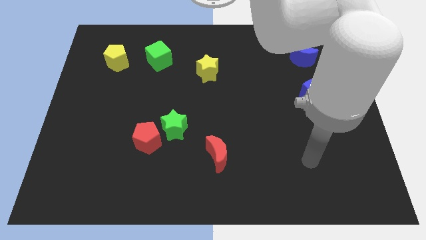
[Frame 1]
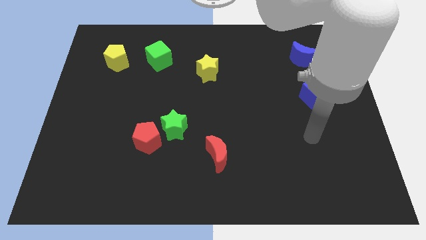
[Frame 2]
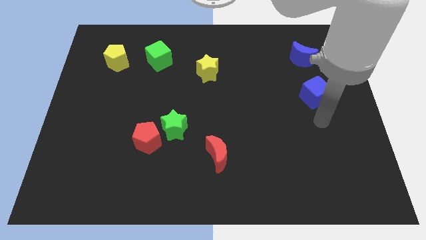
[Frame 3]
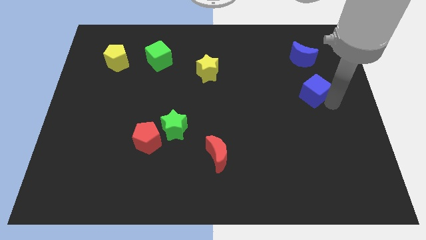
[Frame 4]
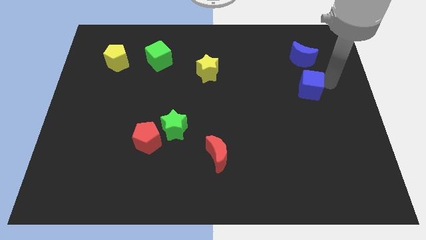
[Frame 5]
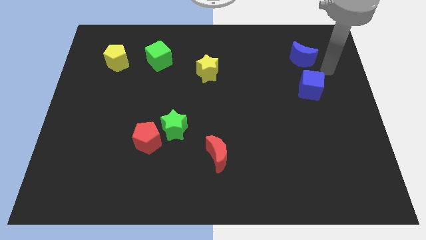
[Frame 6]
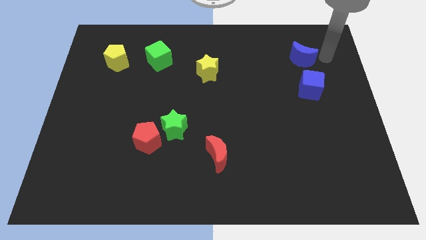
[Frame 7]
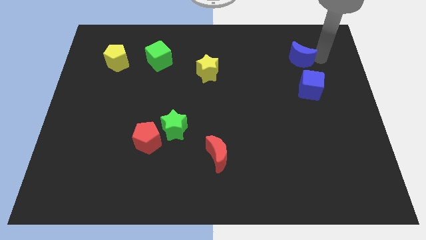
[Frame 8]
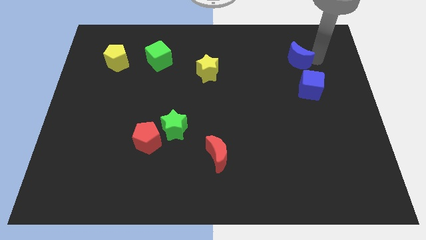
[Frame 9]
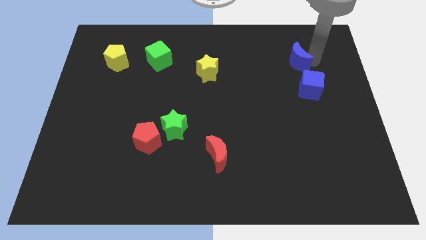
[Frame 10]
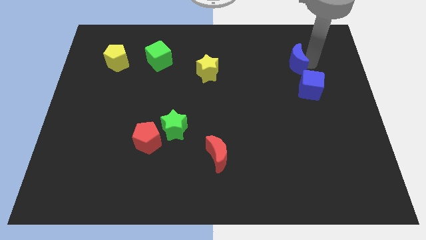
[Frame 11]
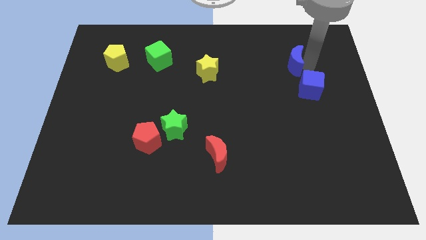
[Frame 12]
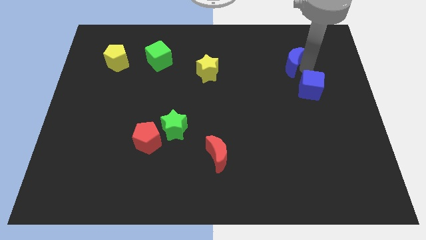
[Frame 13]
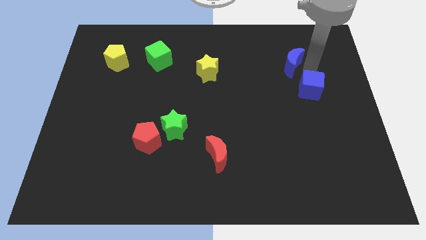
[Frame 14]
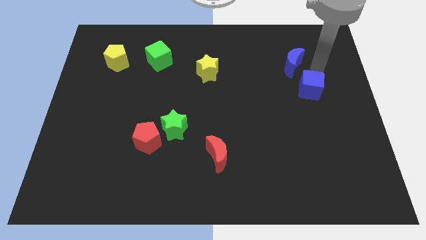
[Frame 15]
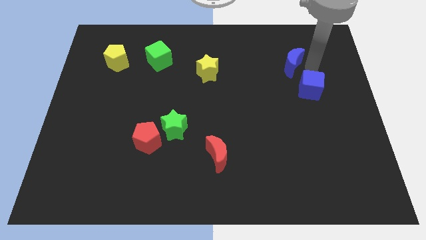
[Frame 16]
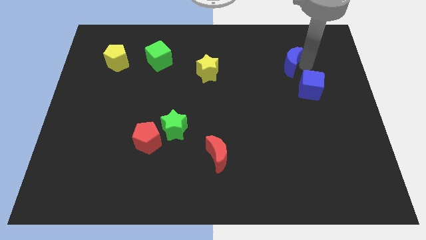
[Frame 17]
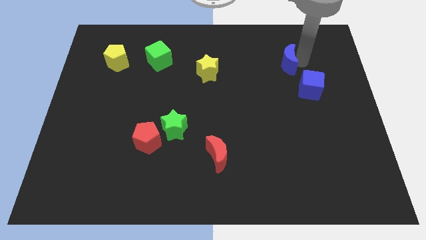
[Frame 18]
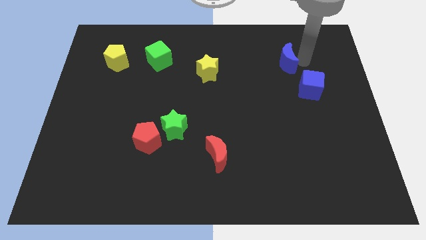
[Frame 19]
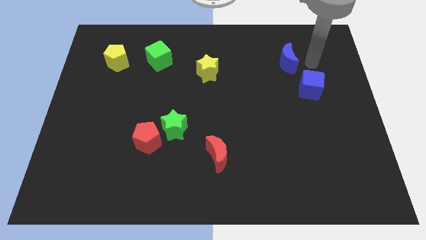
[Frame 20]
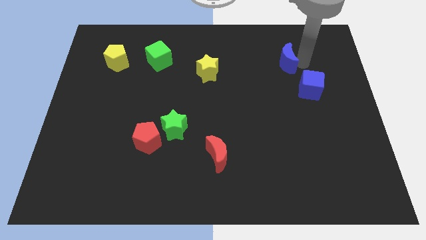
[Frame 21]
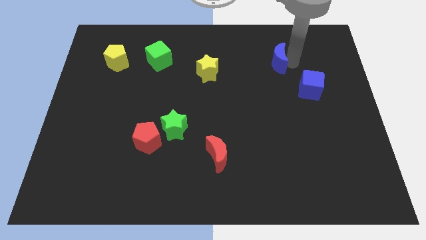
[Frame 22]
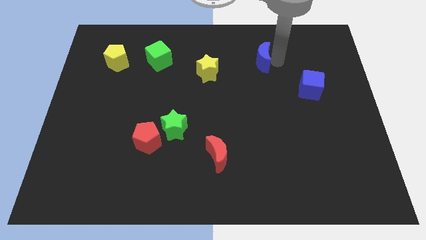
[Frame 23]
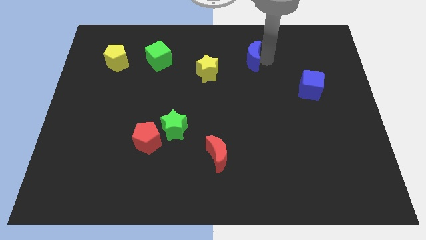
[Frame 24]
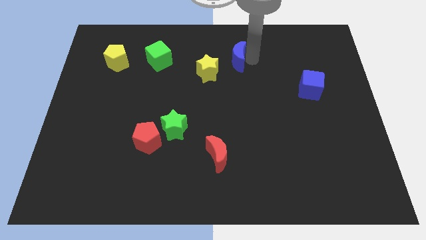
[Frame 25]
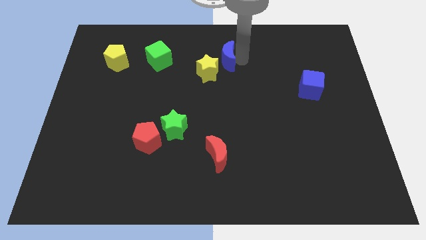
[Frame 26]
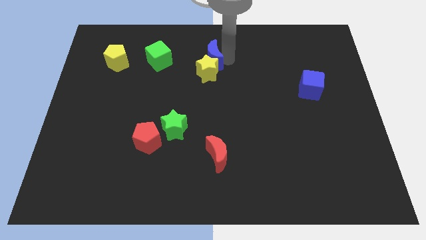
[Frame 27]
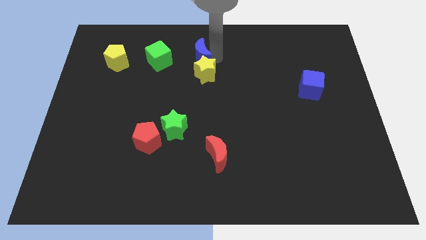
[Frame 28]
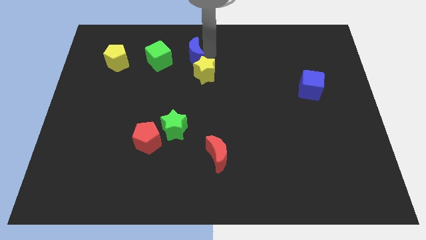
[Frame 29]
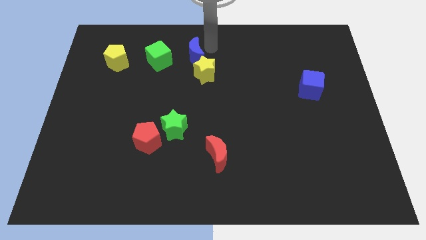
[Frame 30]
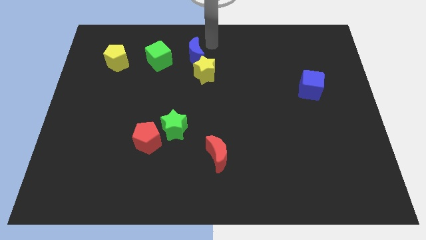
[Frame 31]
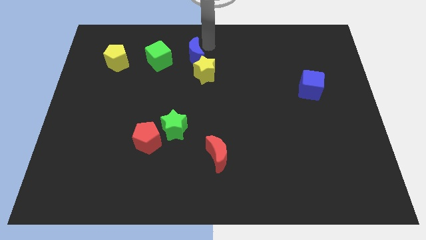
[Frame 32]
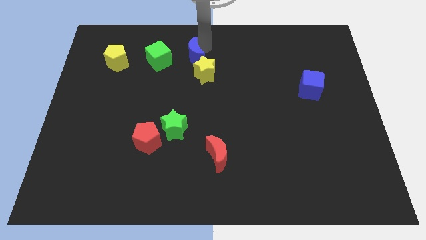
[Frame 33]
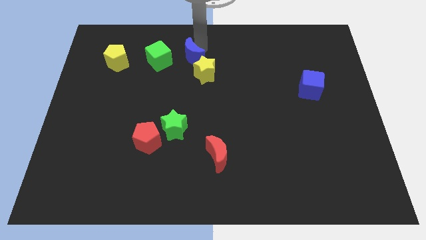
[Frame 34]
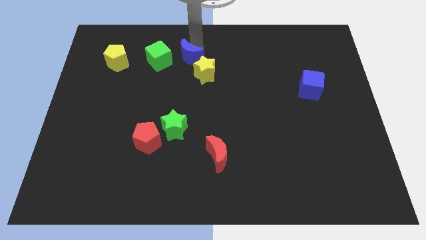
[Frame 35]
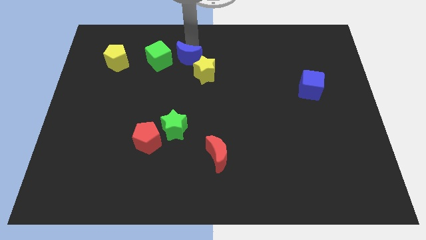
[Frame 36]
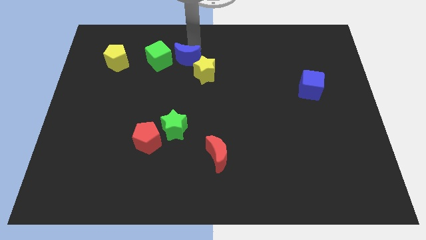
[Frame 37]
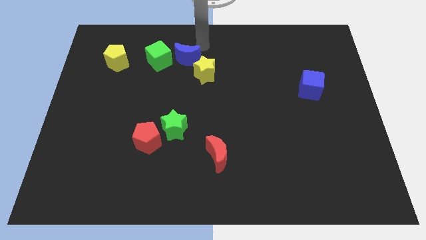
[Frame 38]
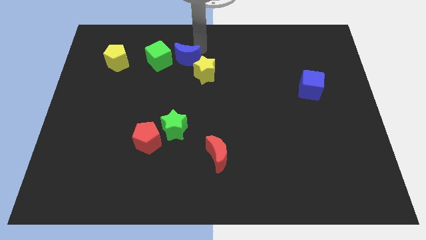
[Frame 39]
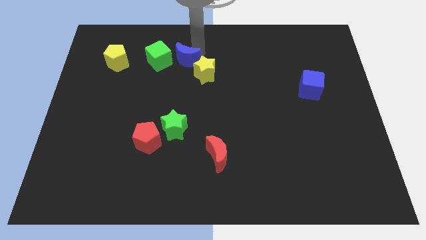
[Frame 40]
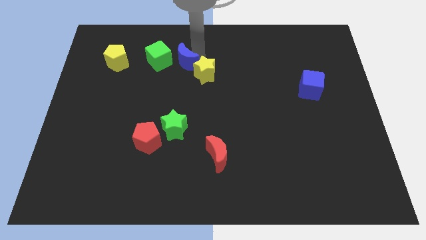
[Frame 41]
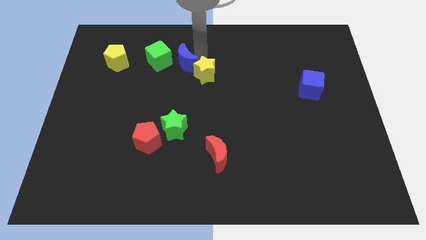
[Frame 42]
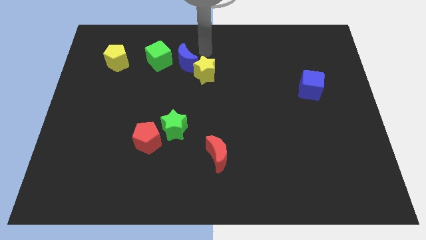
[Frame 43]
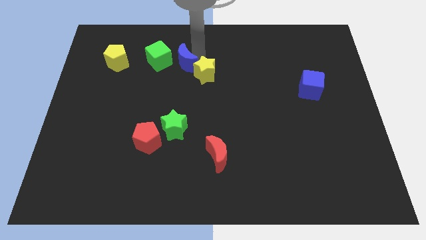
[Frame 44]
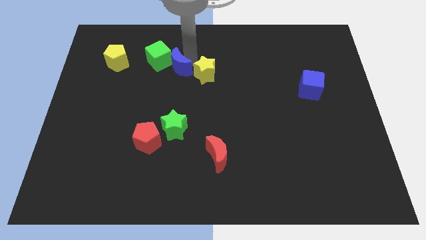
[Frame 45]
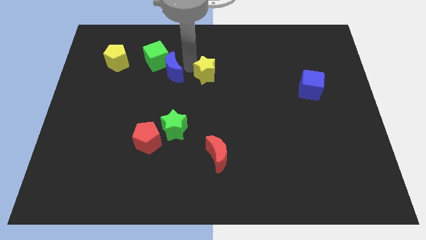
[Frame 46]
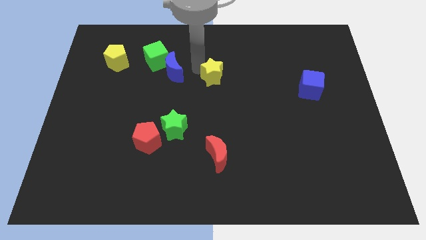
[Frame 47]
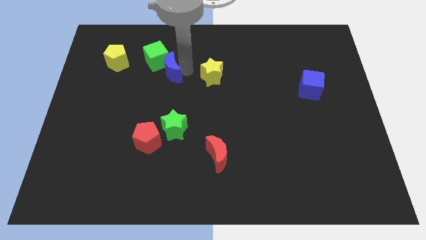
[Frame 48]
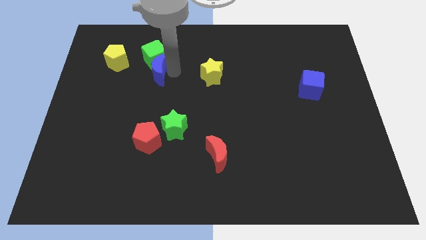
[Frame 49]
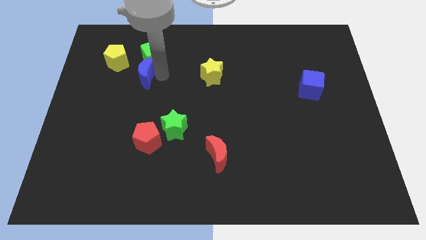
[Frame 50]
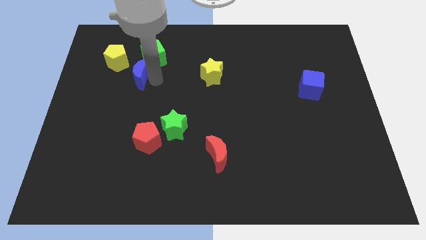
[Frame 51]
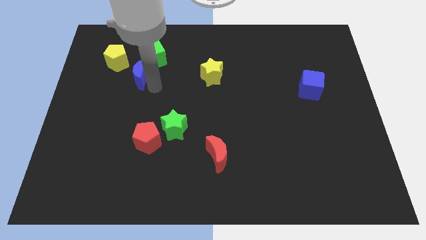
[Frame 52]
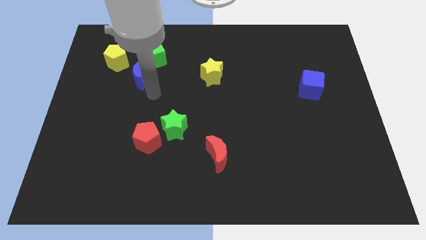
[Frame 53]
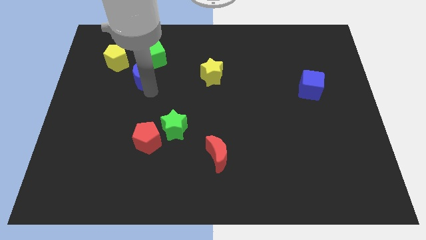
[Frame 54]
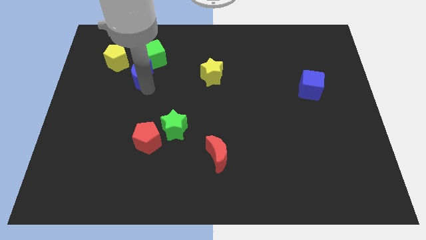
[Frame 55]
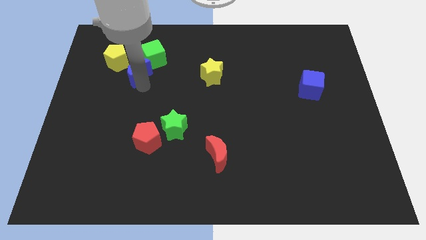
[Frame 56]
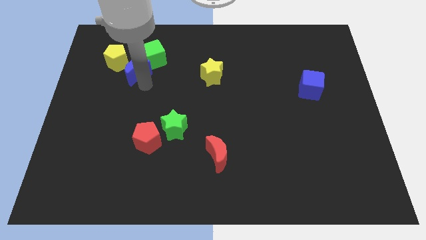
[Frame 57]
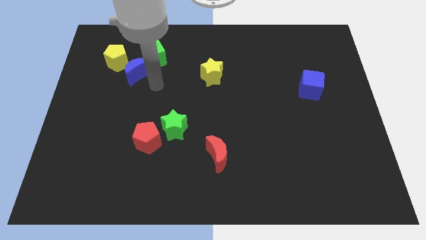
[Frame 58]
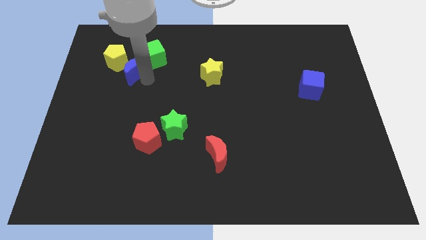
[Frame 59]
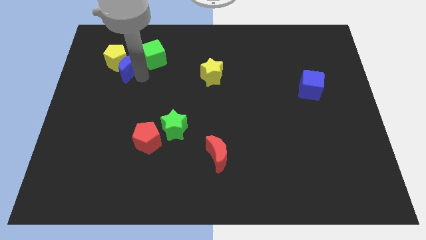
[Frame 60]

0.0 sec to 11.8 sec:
slide the blue moon close to the yellow pentagon

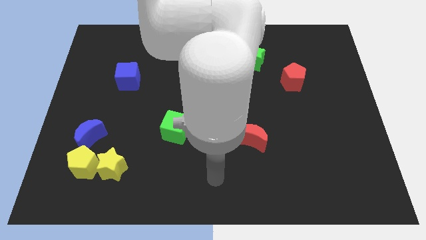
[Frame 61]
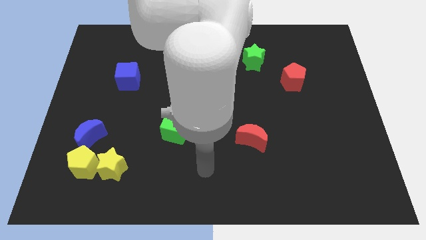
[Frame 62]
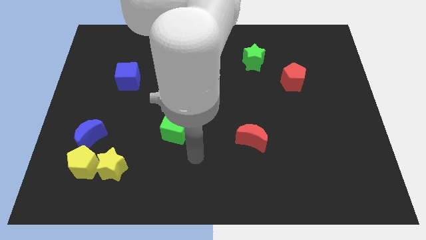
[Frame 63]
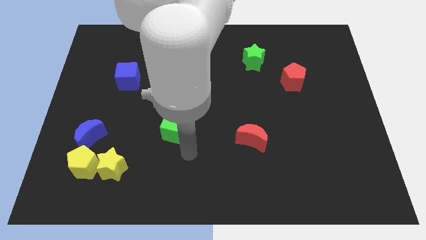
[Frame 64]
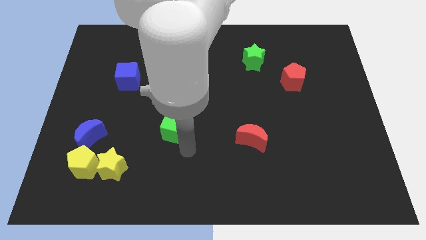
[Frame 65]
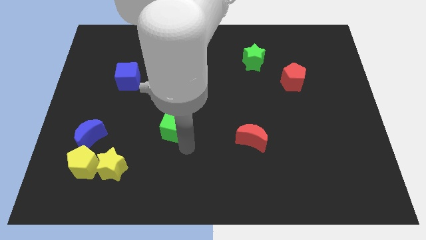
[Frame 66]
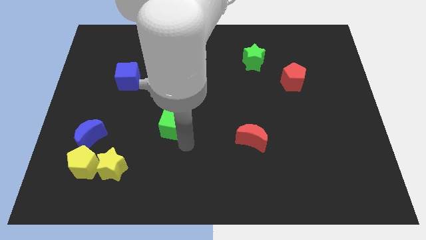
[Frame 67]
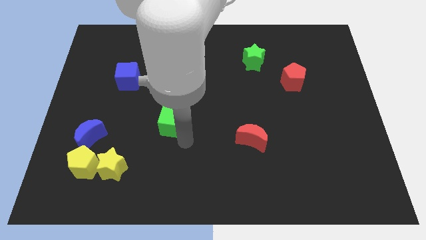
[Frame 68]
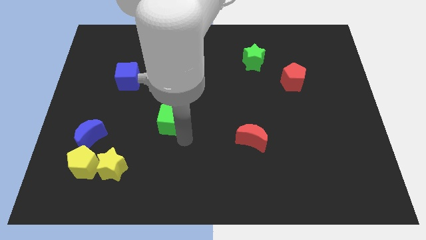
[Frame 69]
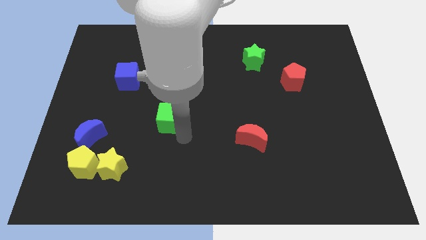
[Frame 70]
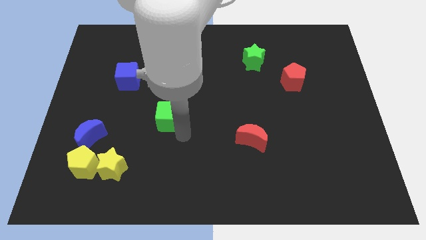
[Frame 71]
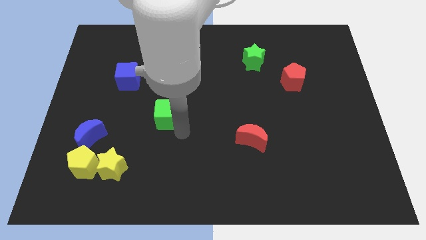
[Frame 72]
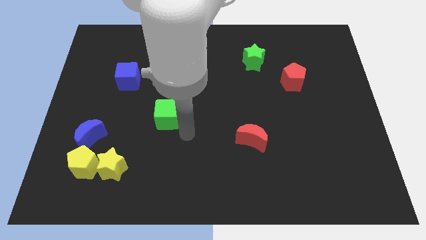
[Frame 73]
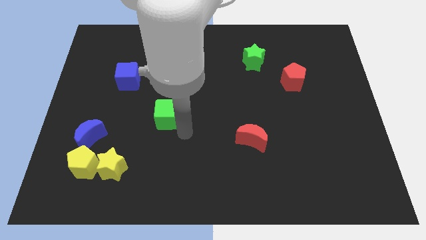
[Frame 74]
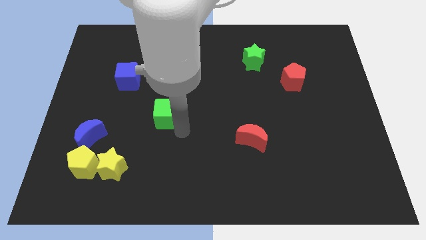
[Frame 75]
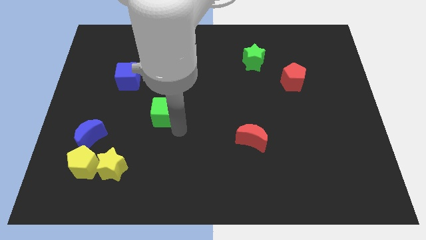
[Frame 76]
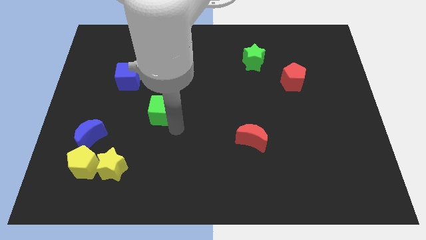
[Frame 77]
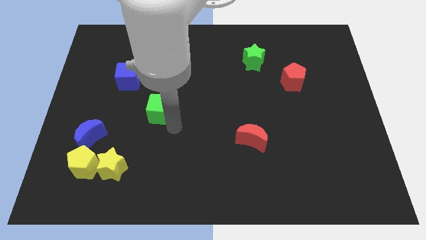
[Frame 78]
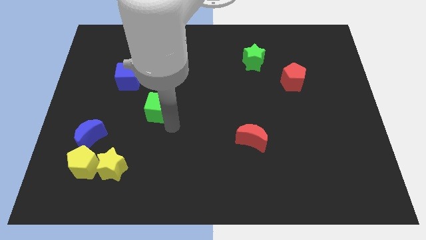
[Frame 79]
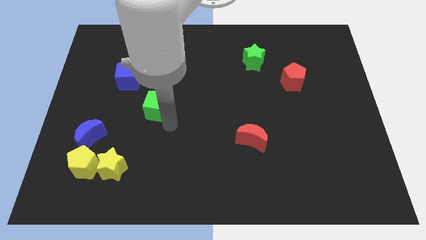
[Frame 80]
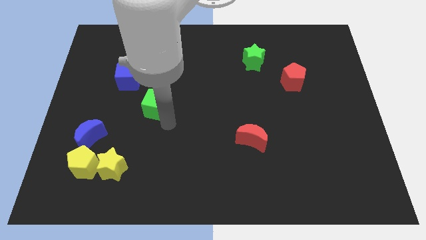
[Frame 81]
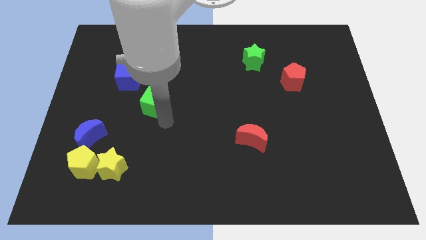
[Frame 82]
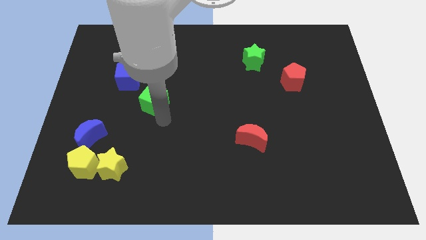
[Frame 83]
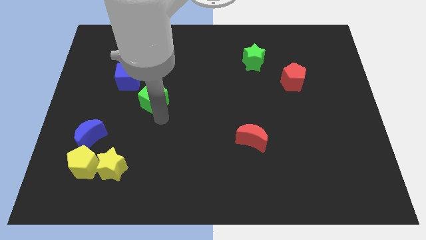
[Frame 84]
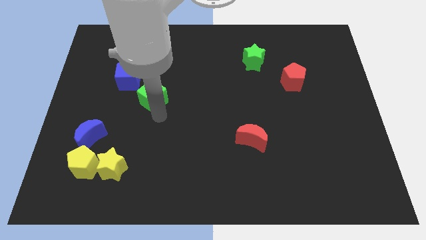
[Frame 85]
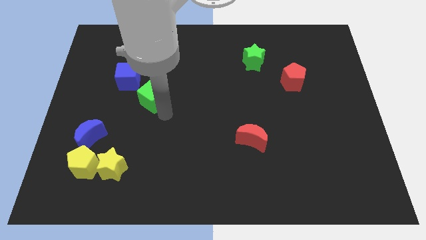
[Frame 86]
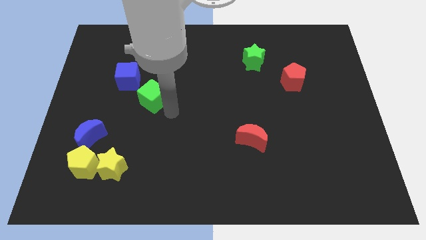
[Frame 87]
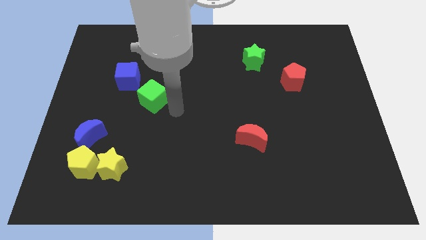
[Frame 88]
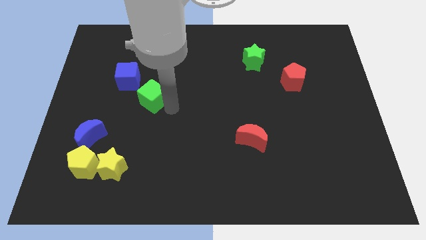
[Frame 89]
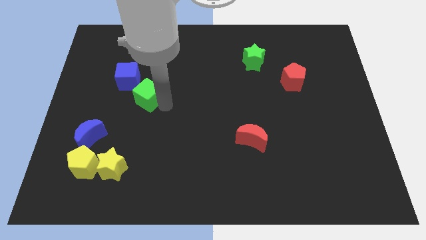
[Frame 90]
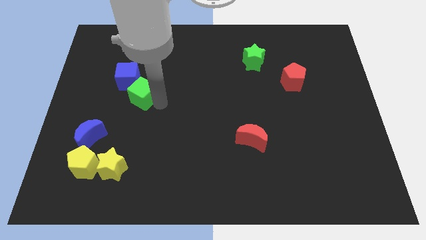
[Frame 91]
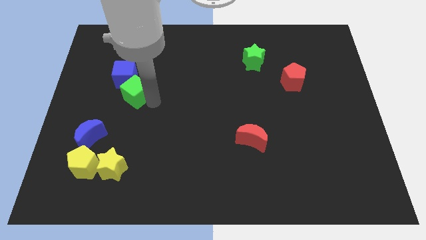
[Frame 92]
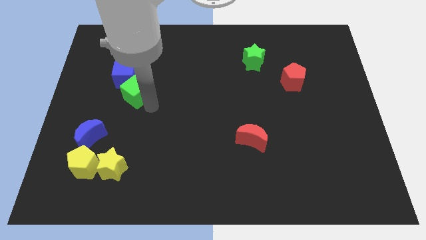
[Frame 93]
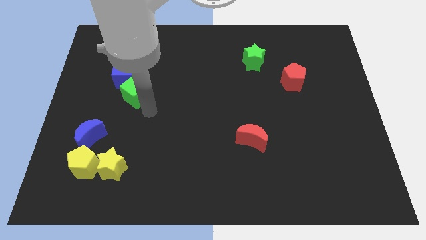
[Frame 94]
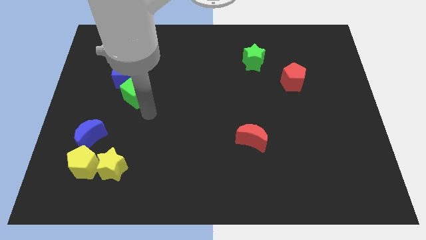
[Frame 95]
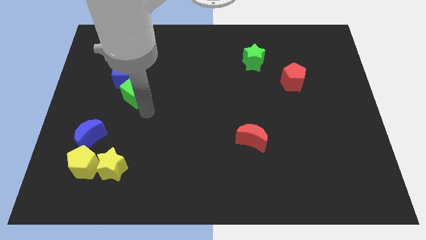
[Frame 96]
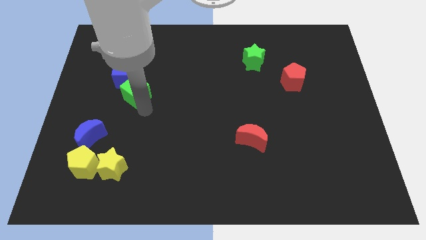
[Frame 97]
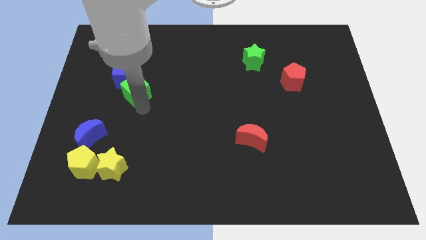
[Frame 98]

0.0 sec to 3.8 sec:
slide the green cube towards the blue cube
